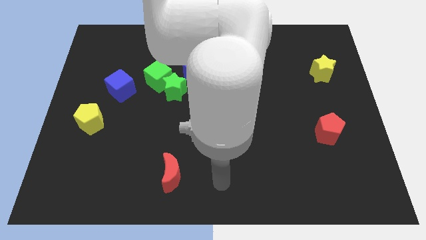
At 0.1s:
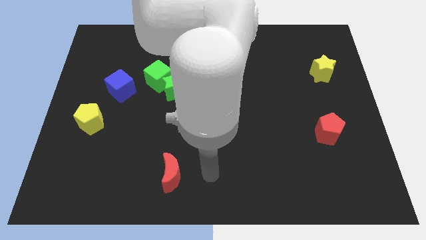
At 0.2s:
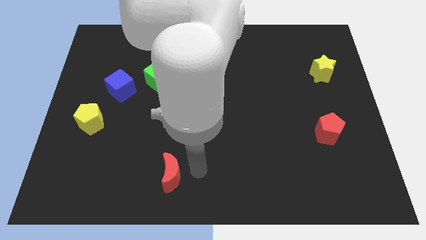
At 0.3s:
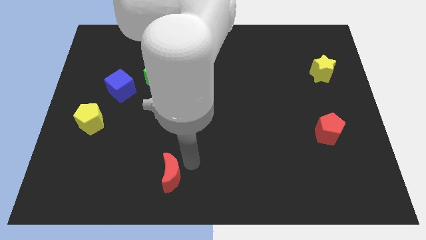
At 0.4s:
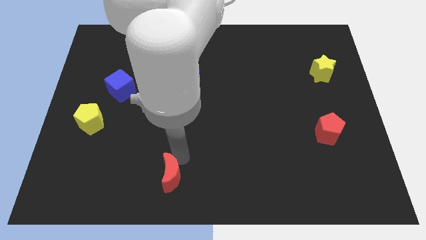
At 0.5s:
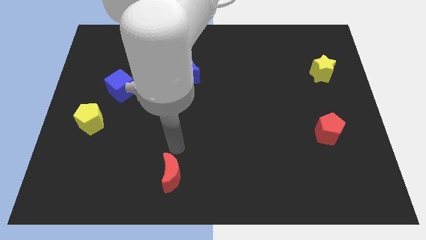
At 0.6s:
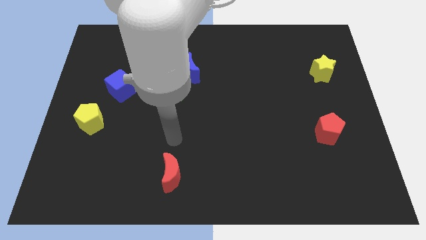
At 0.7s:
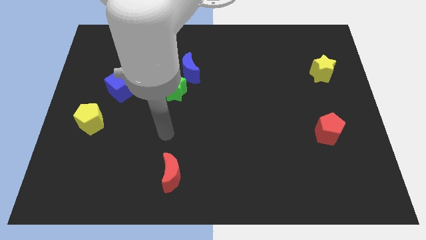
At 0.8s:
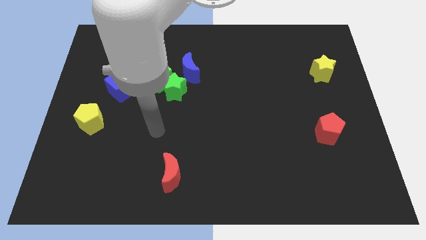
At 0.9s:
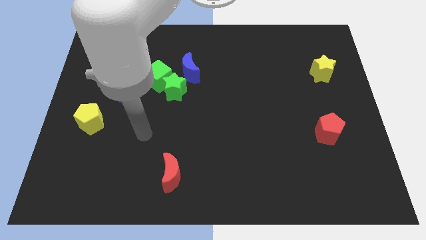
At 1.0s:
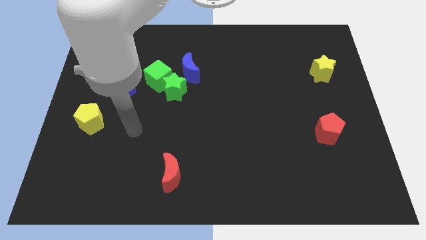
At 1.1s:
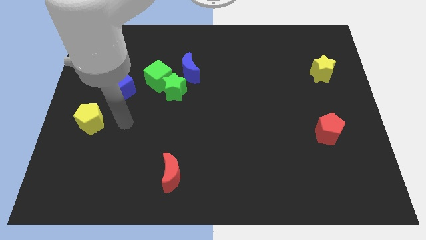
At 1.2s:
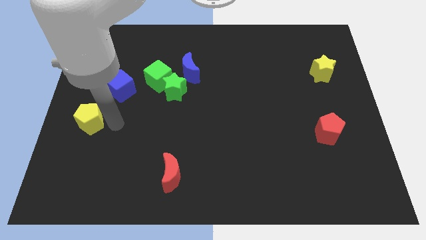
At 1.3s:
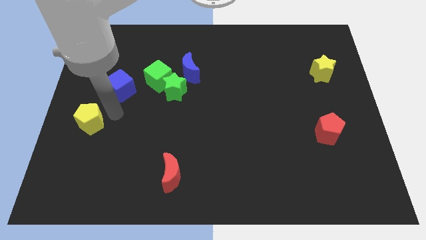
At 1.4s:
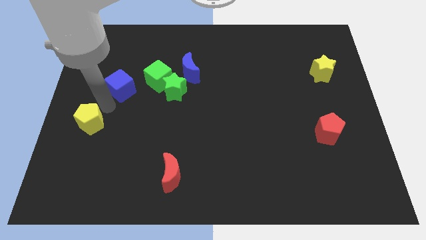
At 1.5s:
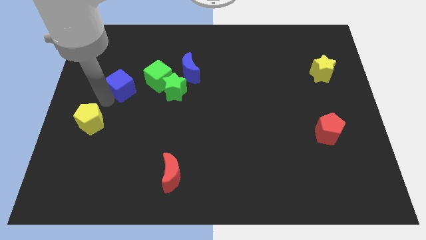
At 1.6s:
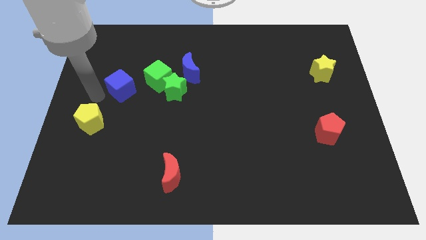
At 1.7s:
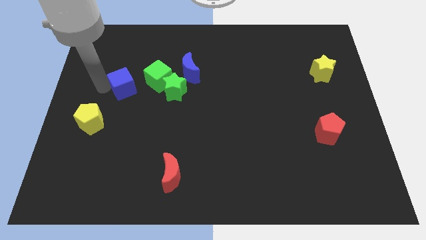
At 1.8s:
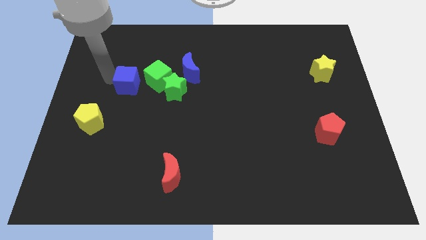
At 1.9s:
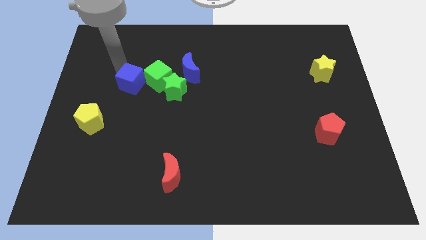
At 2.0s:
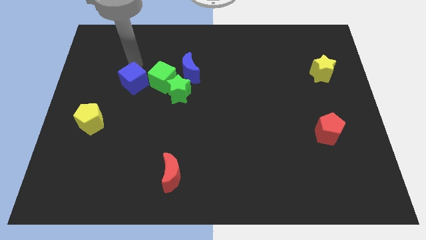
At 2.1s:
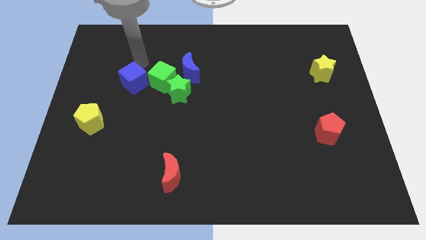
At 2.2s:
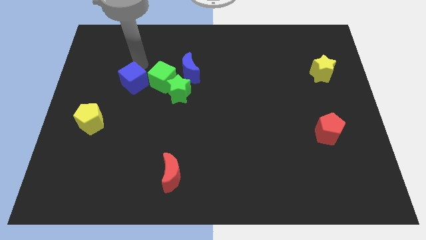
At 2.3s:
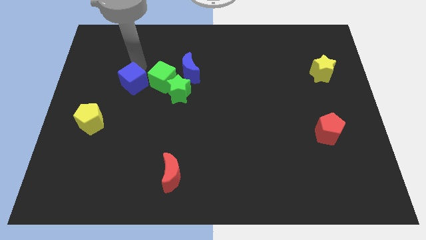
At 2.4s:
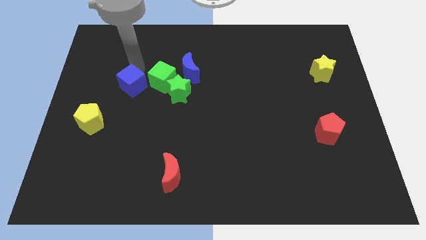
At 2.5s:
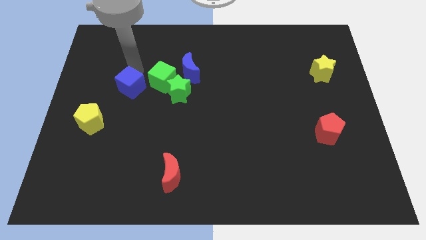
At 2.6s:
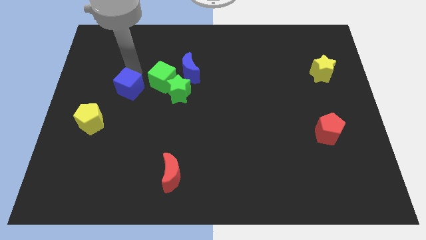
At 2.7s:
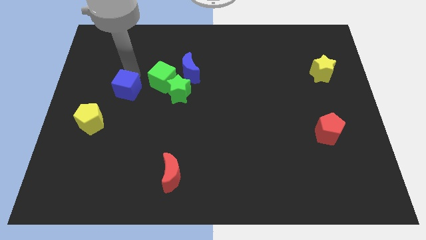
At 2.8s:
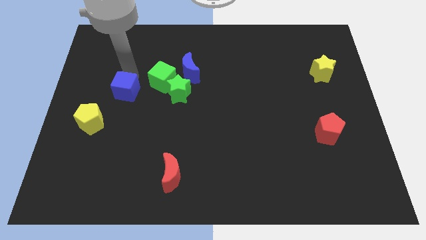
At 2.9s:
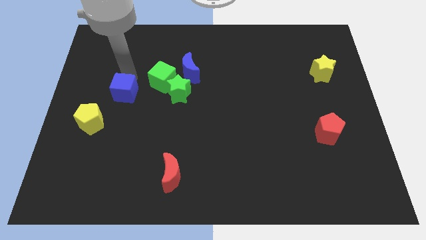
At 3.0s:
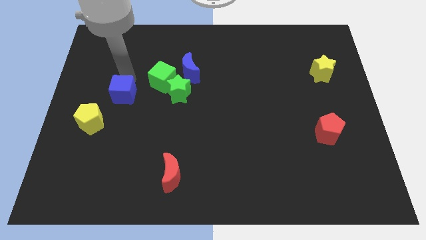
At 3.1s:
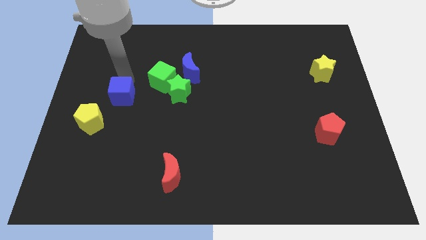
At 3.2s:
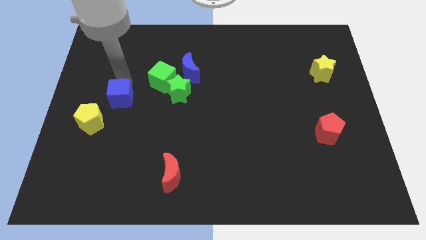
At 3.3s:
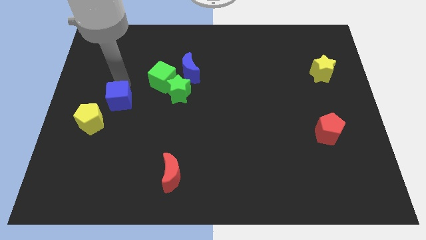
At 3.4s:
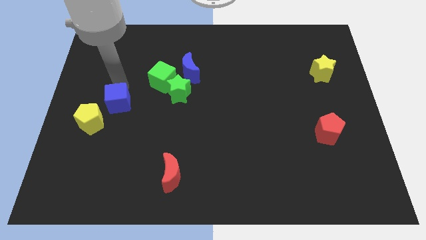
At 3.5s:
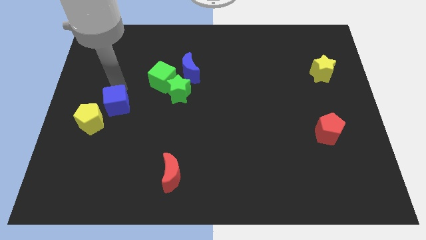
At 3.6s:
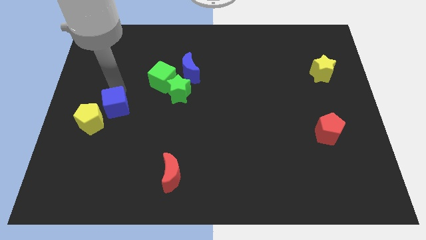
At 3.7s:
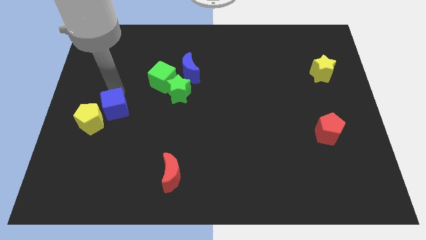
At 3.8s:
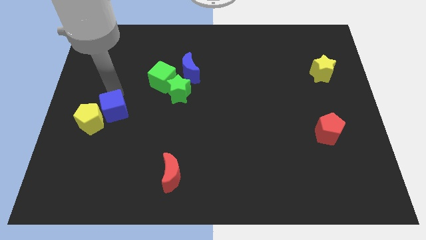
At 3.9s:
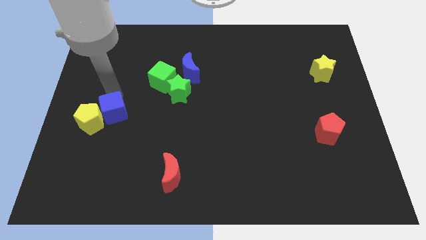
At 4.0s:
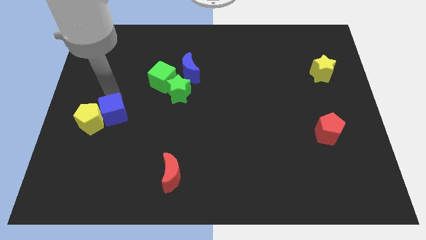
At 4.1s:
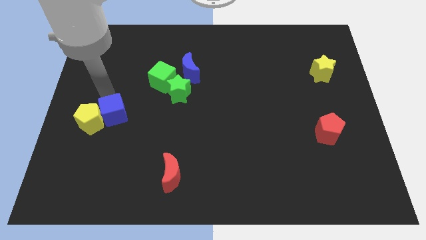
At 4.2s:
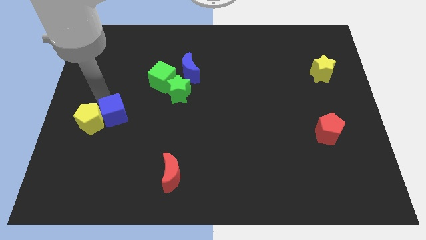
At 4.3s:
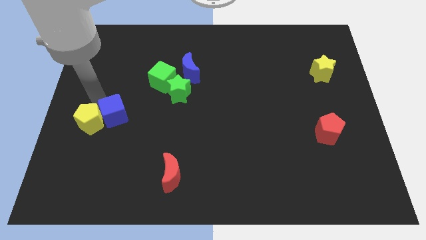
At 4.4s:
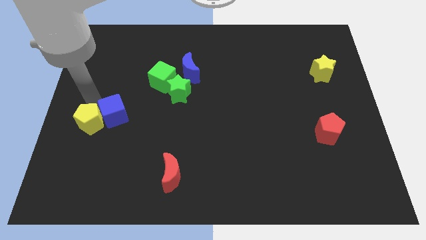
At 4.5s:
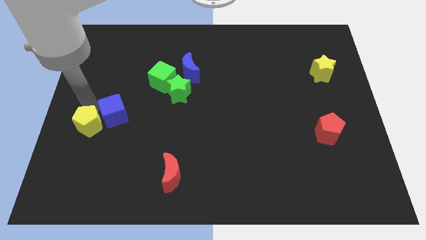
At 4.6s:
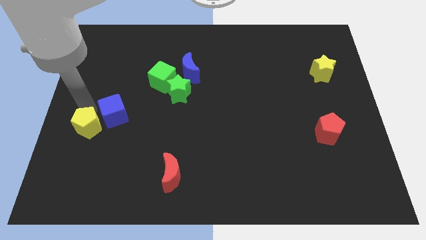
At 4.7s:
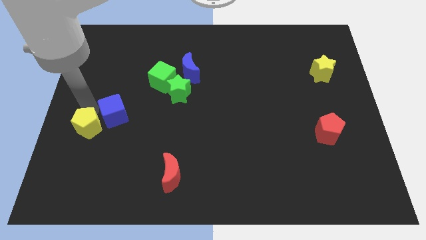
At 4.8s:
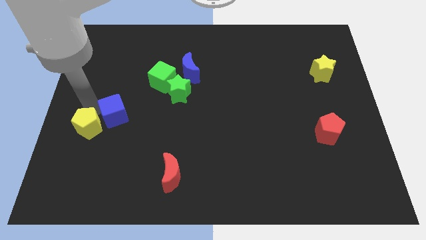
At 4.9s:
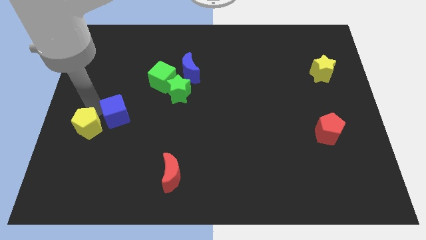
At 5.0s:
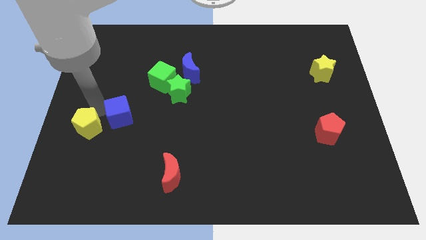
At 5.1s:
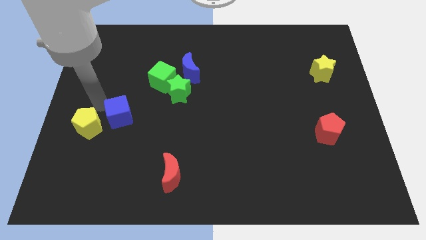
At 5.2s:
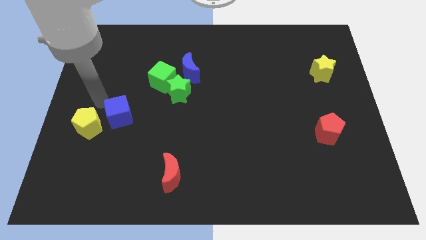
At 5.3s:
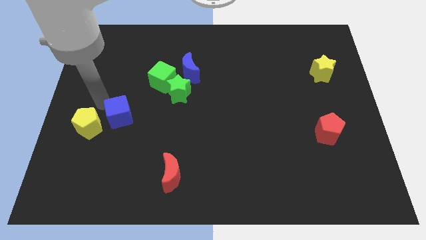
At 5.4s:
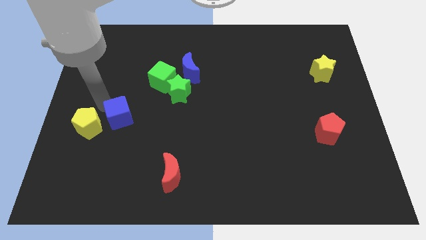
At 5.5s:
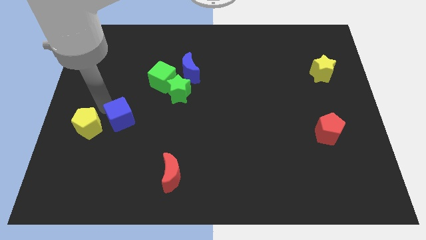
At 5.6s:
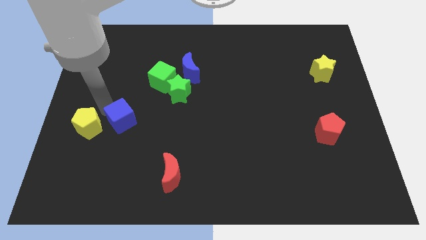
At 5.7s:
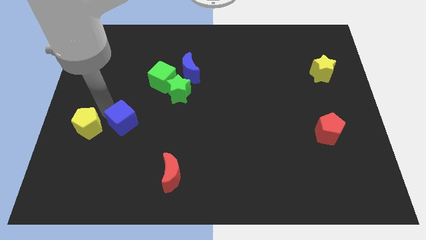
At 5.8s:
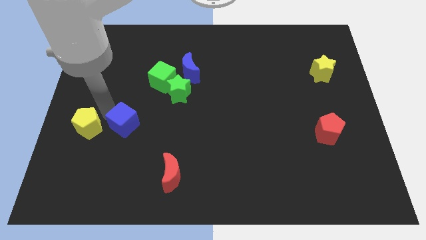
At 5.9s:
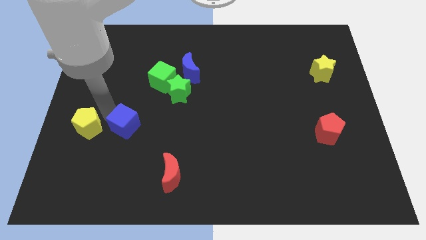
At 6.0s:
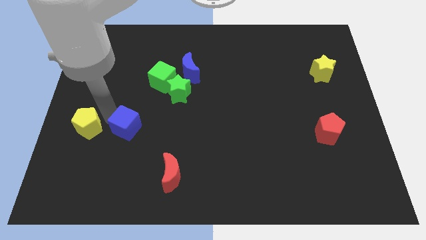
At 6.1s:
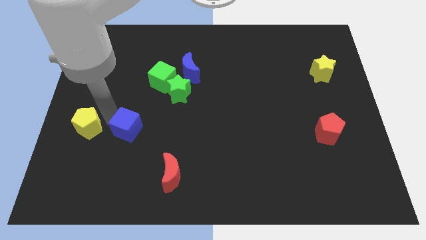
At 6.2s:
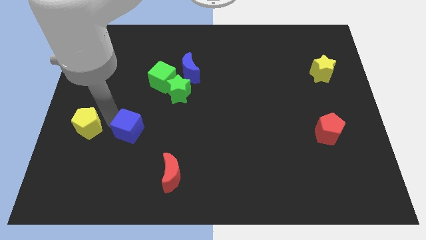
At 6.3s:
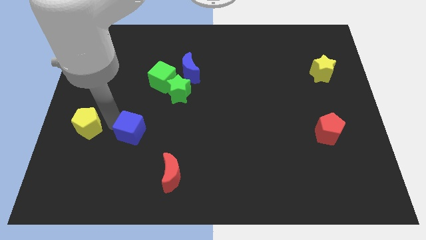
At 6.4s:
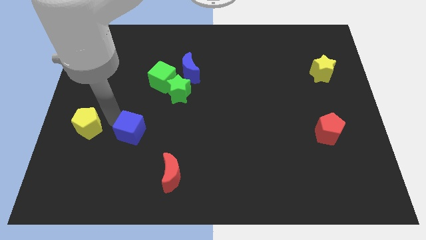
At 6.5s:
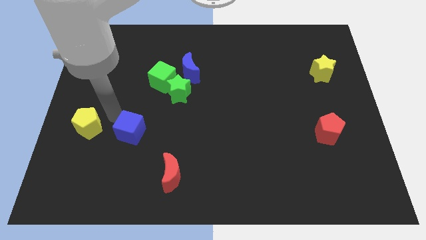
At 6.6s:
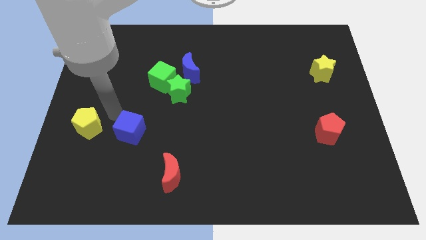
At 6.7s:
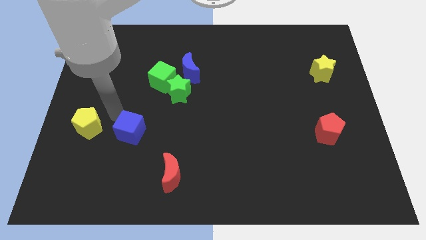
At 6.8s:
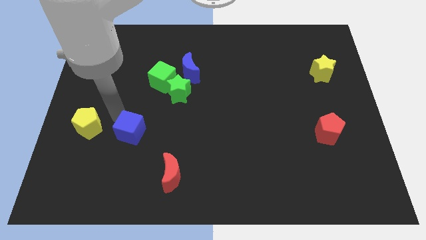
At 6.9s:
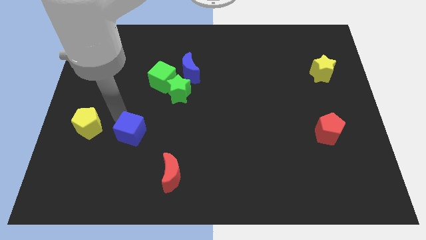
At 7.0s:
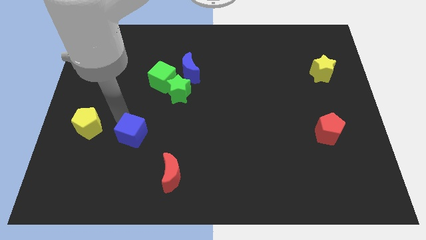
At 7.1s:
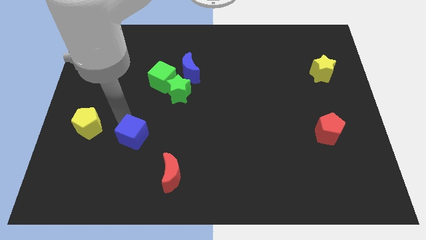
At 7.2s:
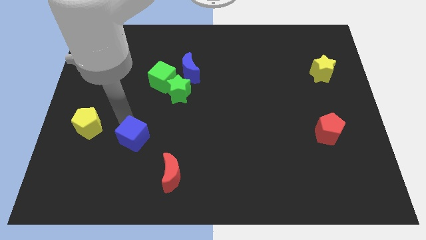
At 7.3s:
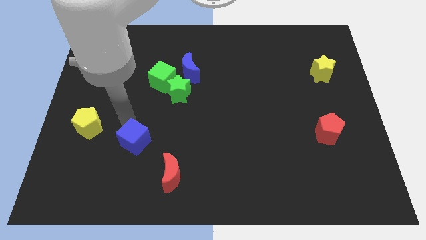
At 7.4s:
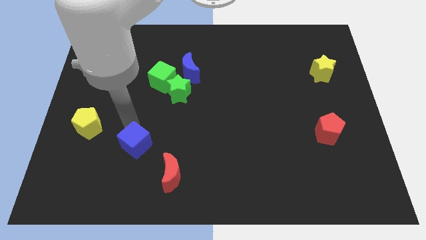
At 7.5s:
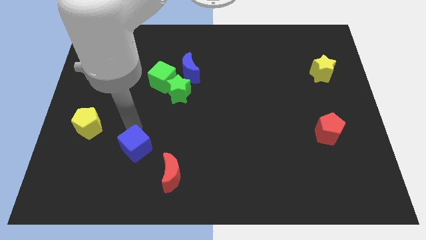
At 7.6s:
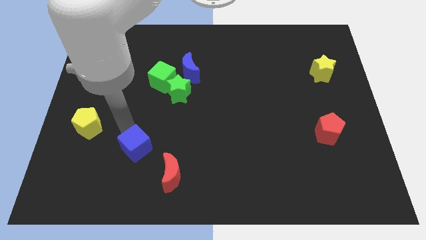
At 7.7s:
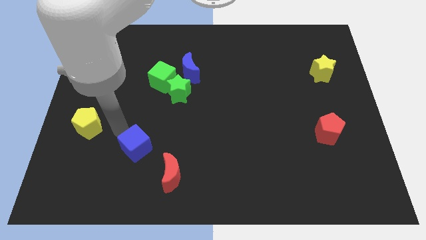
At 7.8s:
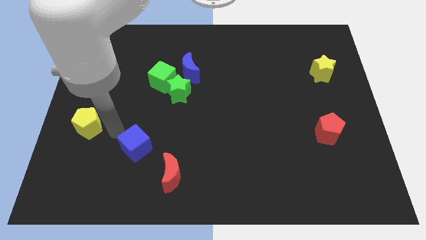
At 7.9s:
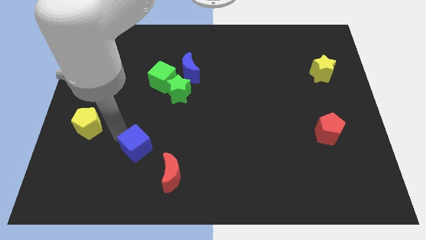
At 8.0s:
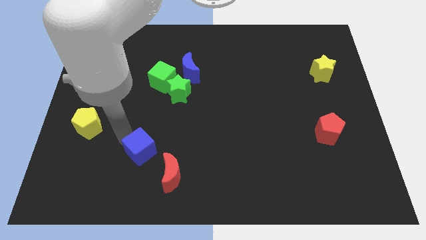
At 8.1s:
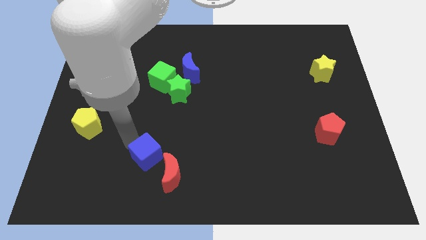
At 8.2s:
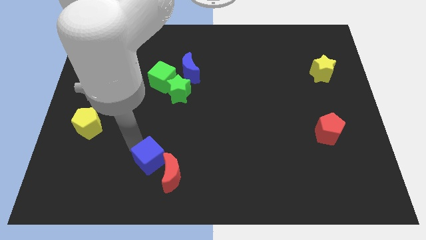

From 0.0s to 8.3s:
slide the blue cube to the red moon
